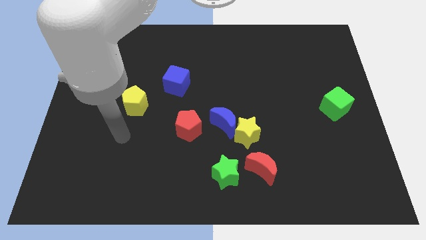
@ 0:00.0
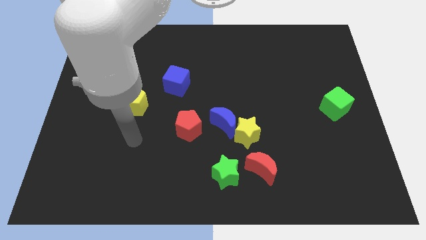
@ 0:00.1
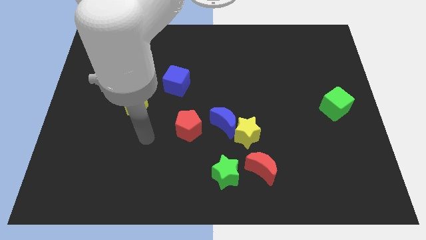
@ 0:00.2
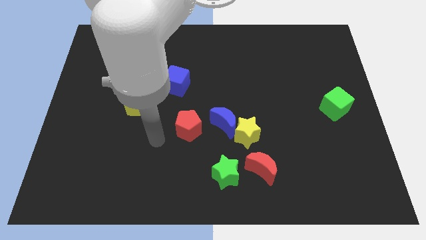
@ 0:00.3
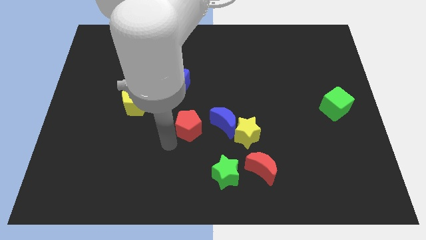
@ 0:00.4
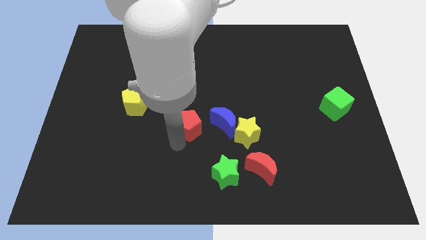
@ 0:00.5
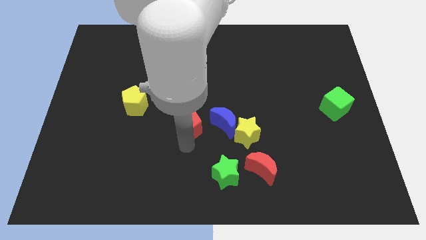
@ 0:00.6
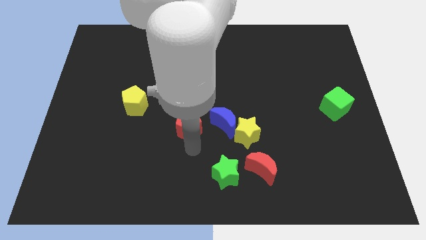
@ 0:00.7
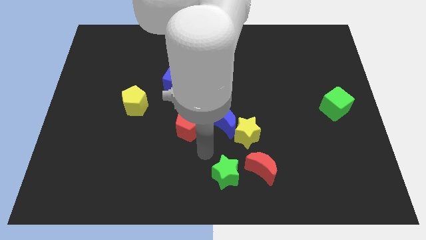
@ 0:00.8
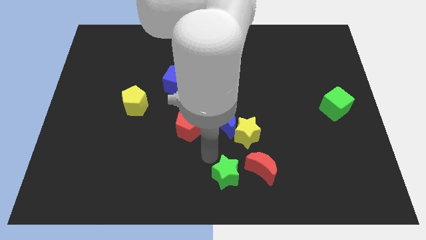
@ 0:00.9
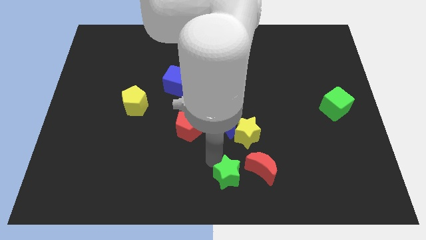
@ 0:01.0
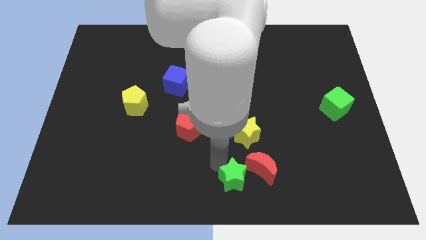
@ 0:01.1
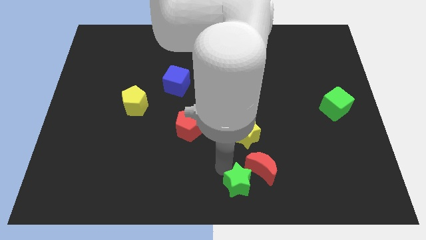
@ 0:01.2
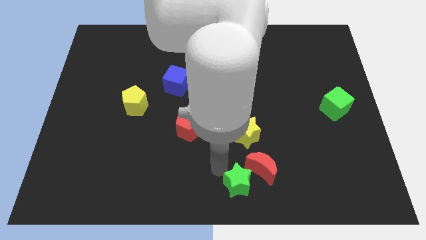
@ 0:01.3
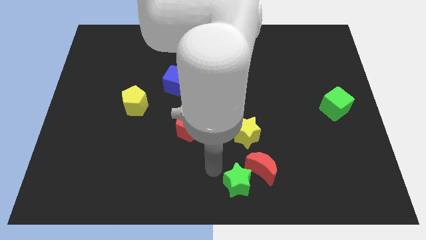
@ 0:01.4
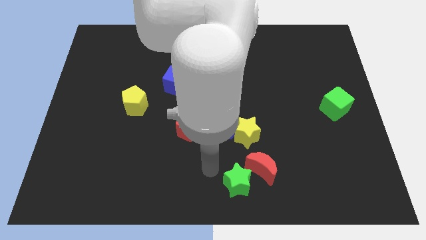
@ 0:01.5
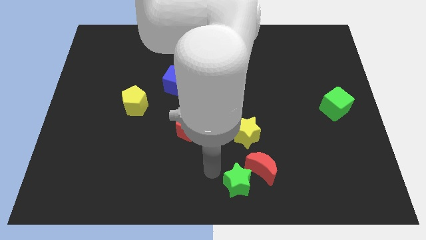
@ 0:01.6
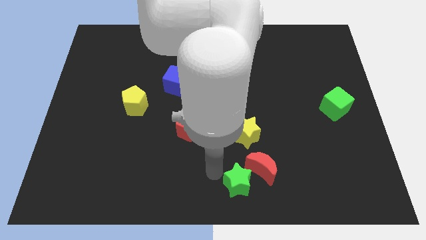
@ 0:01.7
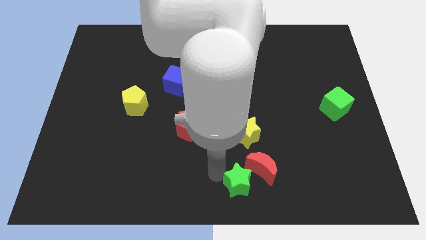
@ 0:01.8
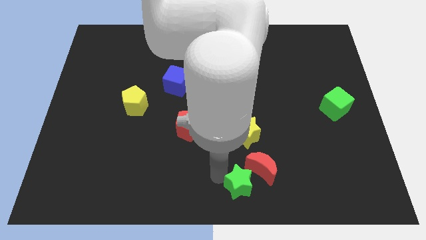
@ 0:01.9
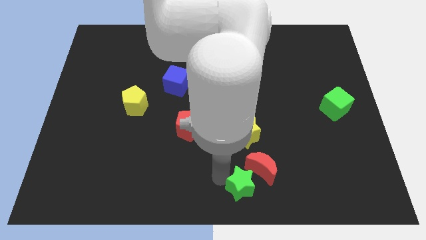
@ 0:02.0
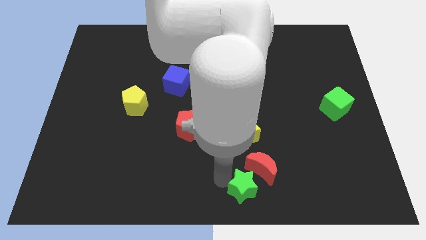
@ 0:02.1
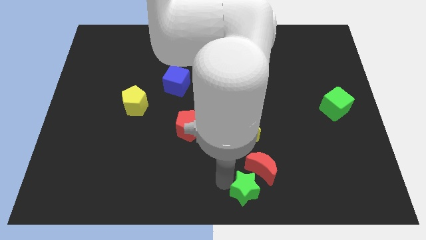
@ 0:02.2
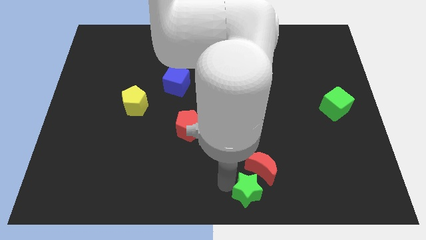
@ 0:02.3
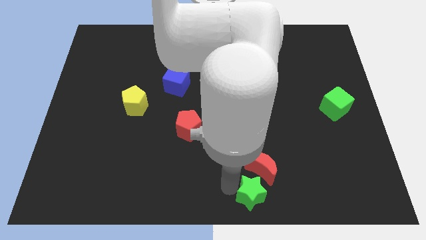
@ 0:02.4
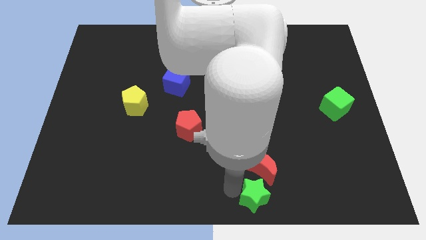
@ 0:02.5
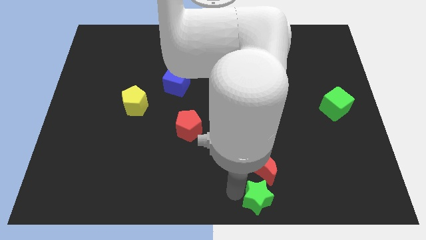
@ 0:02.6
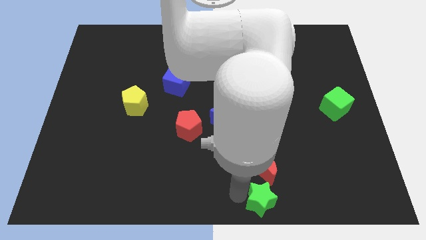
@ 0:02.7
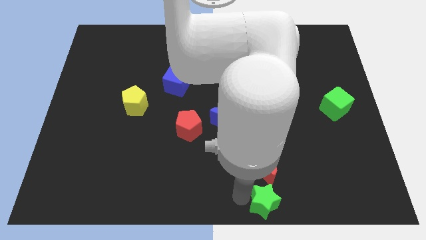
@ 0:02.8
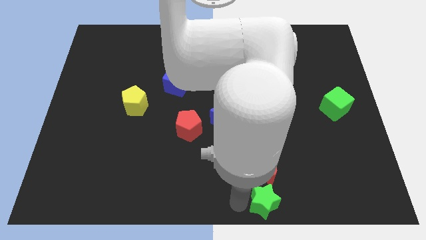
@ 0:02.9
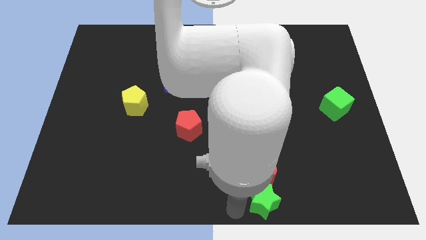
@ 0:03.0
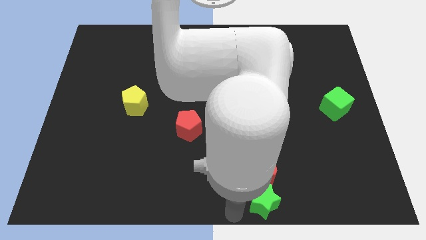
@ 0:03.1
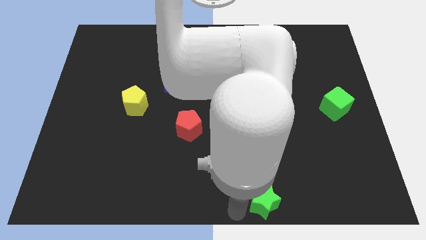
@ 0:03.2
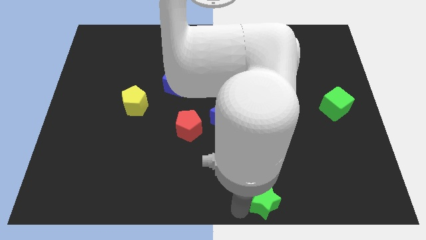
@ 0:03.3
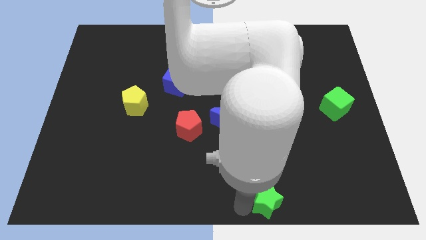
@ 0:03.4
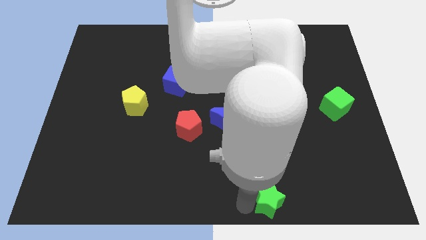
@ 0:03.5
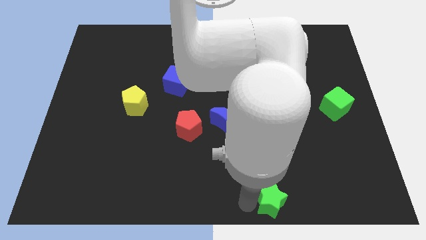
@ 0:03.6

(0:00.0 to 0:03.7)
slightly slide the green star right

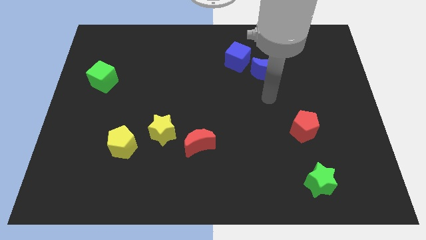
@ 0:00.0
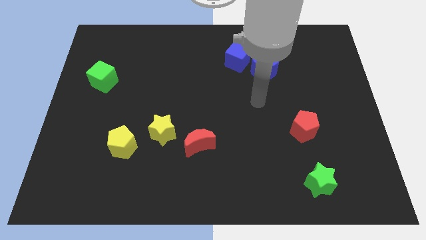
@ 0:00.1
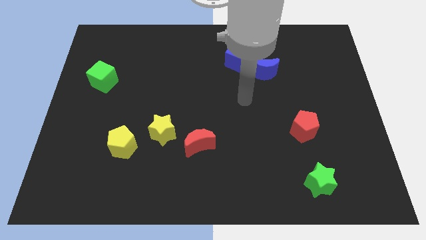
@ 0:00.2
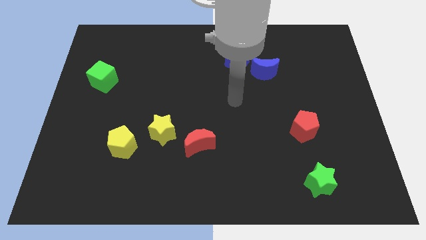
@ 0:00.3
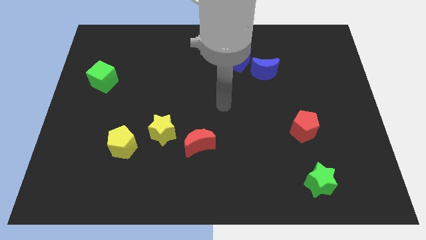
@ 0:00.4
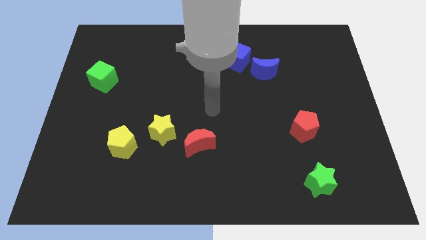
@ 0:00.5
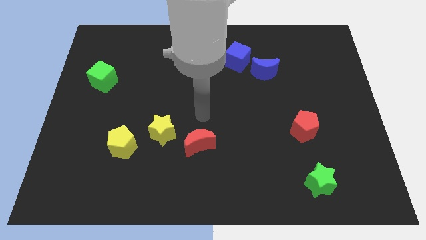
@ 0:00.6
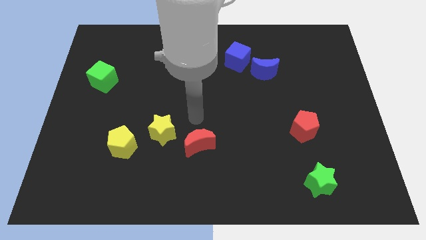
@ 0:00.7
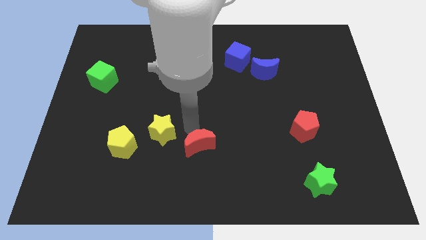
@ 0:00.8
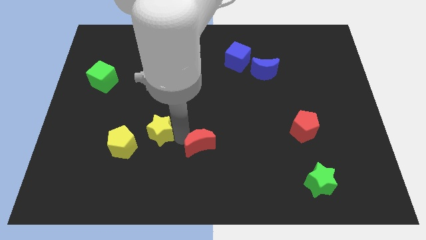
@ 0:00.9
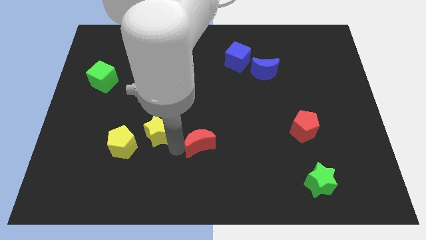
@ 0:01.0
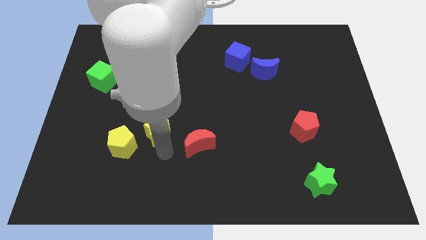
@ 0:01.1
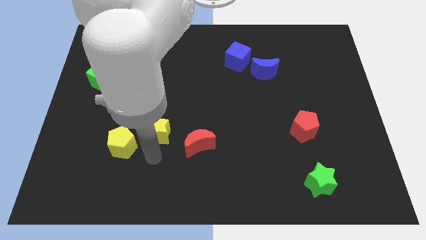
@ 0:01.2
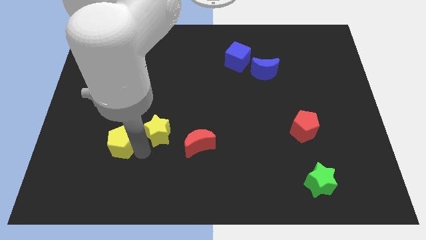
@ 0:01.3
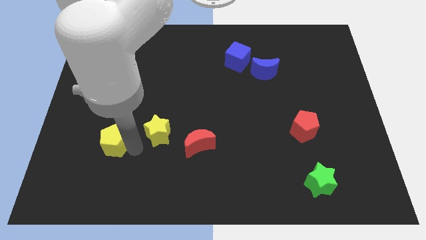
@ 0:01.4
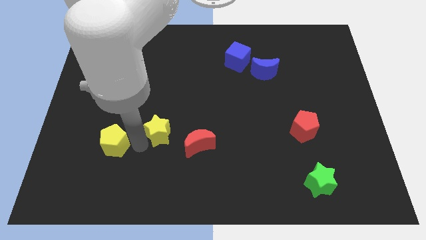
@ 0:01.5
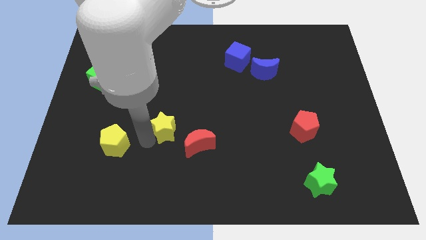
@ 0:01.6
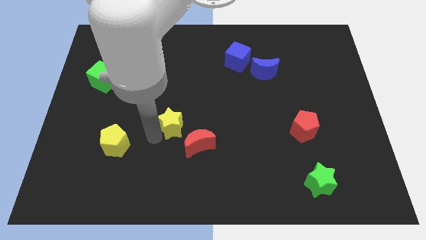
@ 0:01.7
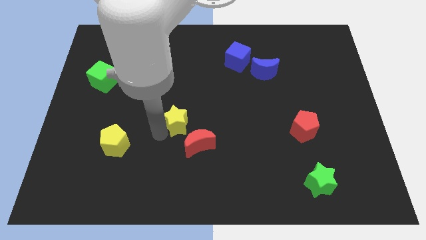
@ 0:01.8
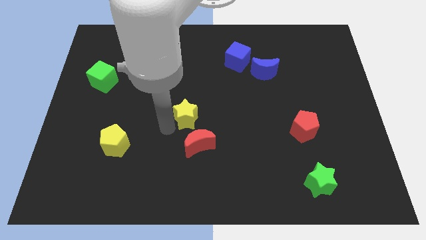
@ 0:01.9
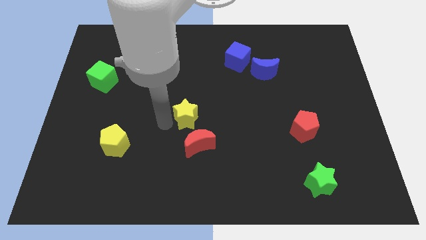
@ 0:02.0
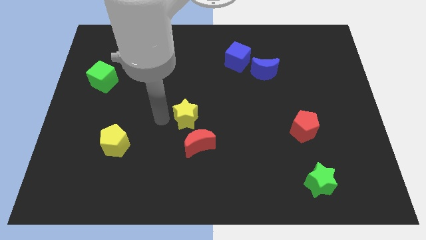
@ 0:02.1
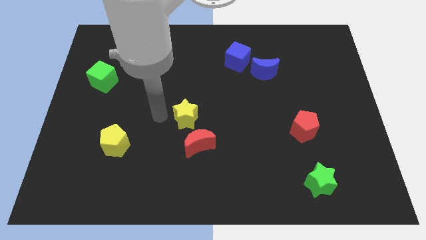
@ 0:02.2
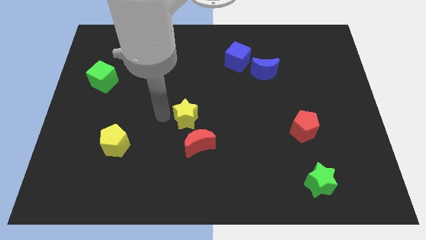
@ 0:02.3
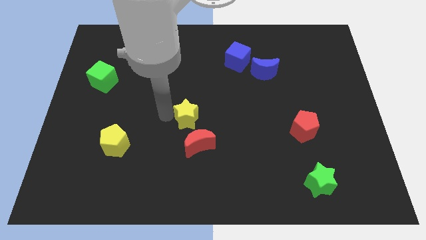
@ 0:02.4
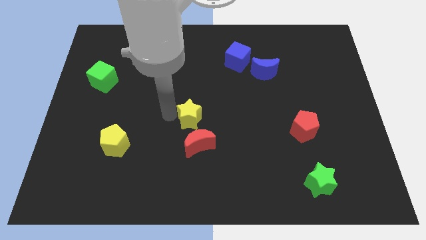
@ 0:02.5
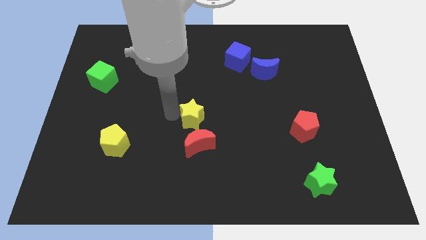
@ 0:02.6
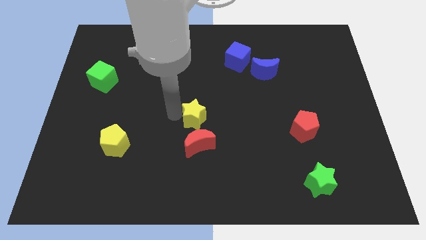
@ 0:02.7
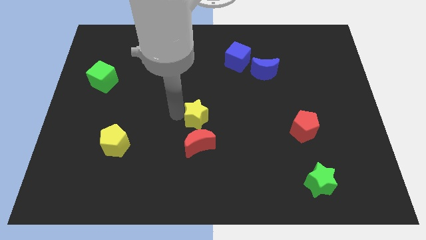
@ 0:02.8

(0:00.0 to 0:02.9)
slightly push the yellow star right

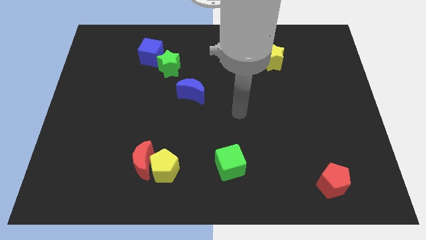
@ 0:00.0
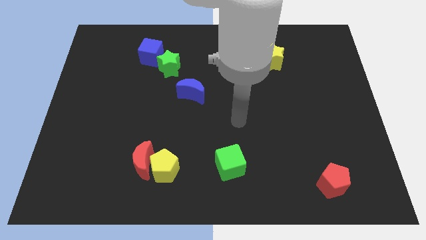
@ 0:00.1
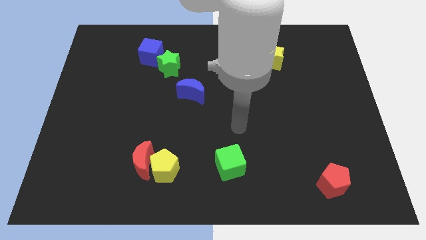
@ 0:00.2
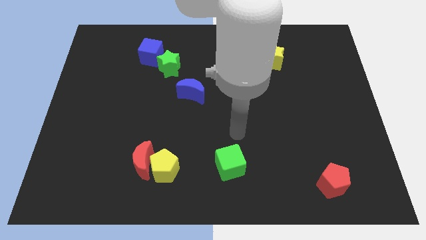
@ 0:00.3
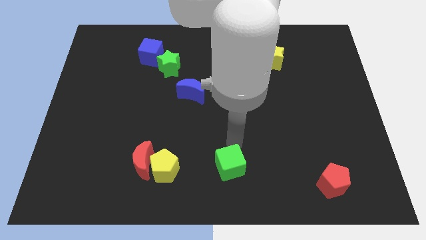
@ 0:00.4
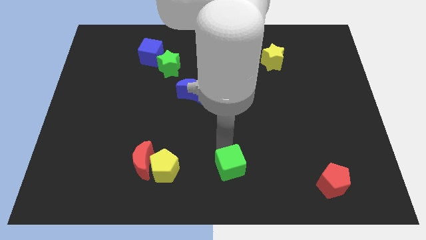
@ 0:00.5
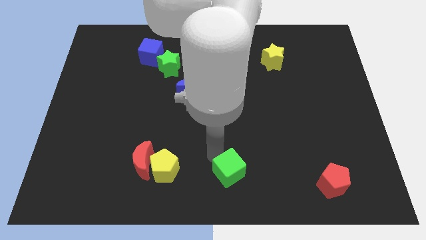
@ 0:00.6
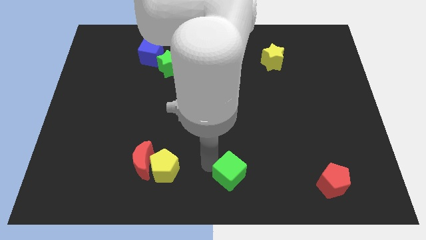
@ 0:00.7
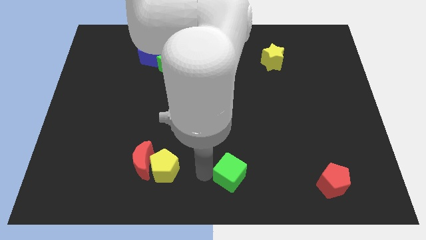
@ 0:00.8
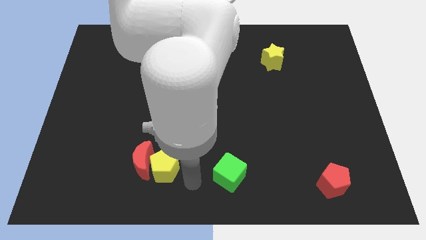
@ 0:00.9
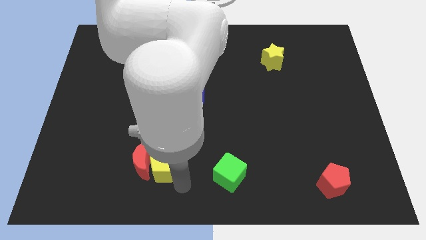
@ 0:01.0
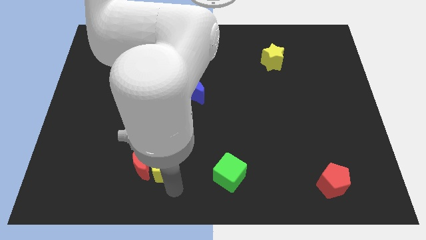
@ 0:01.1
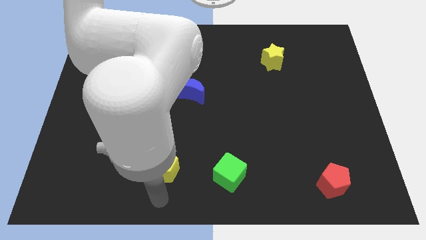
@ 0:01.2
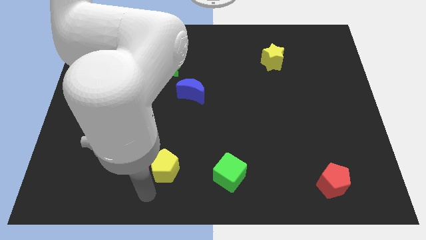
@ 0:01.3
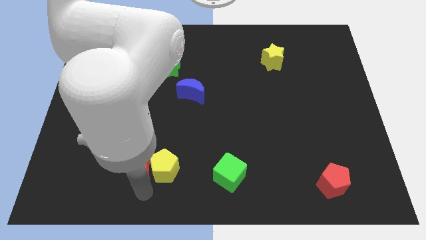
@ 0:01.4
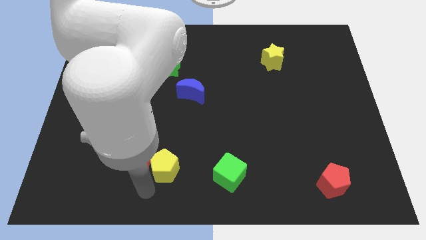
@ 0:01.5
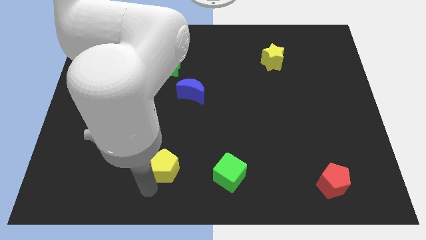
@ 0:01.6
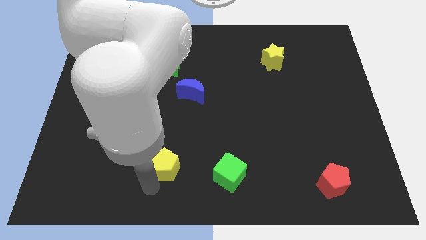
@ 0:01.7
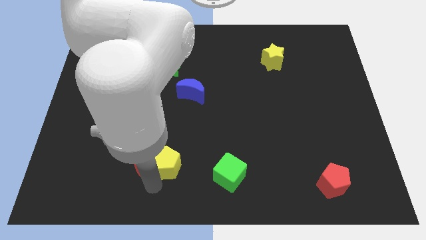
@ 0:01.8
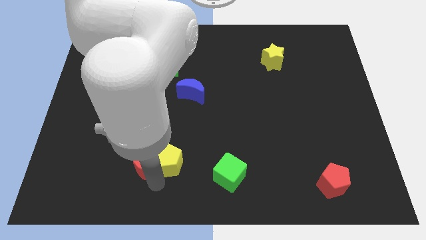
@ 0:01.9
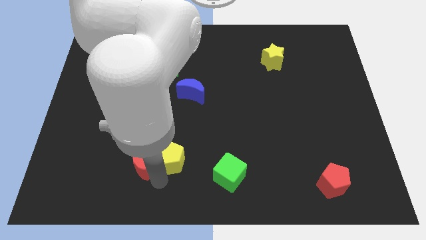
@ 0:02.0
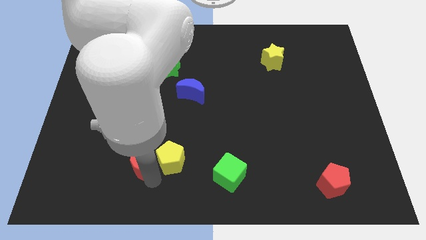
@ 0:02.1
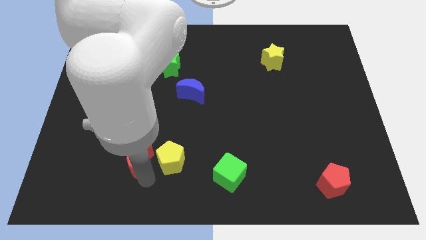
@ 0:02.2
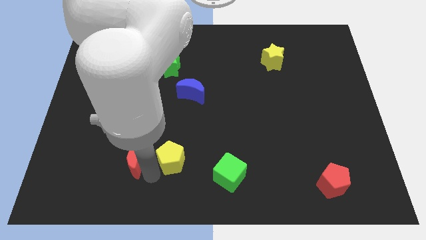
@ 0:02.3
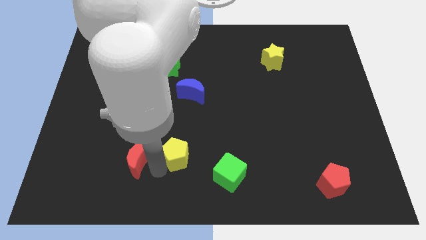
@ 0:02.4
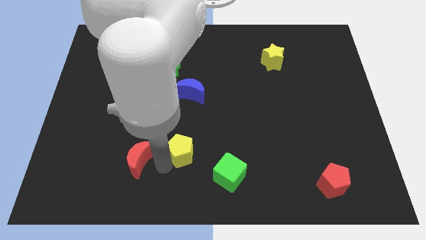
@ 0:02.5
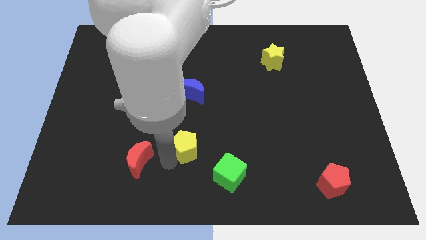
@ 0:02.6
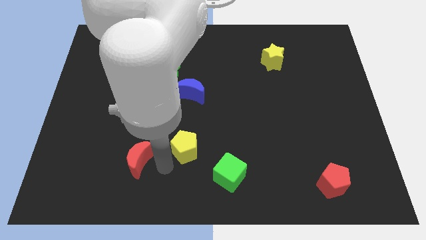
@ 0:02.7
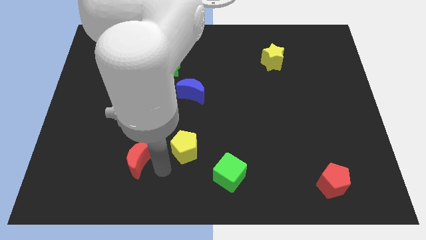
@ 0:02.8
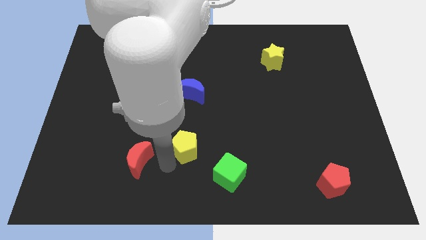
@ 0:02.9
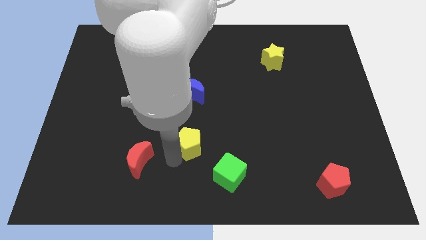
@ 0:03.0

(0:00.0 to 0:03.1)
slide the yellow pentagon a little bit upwards and to the right
